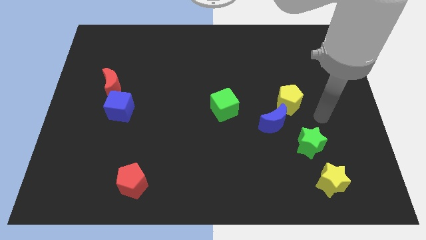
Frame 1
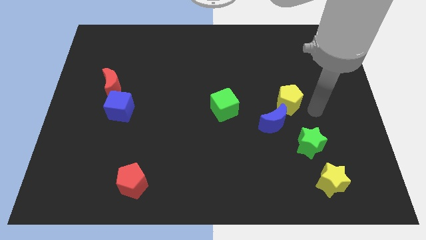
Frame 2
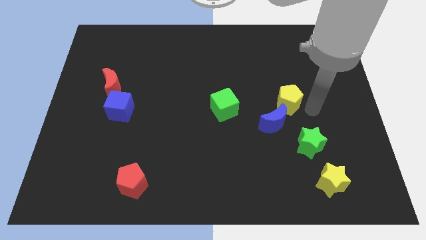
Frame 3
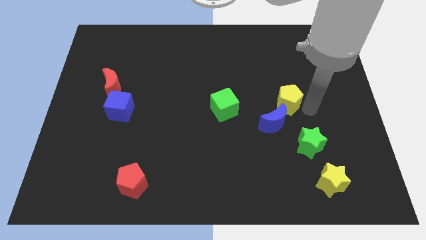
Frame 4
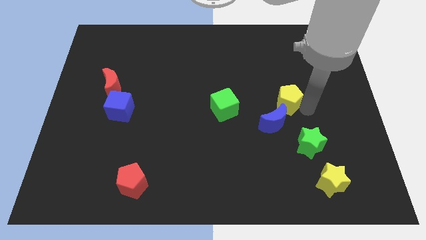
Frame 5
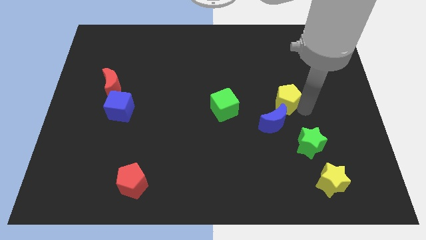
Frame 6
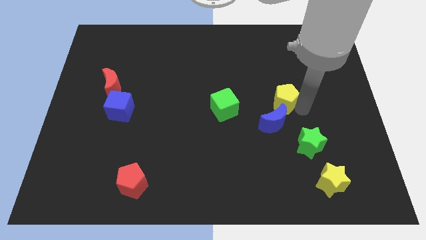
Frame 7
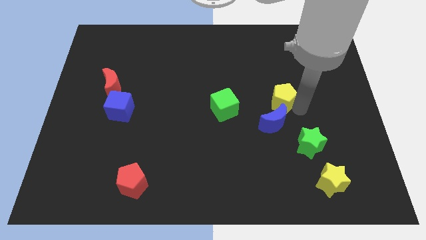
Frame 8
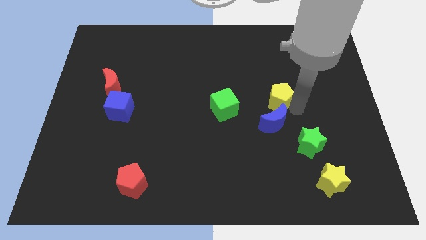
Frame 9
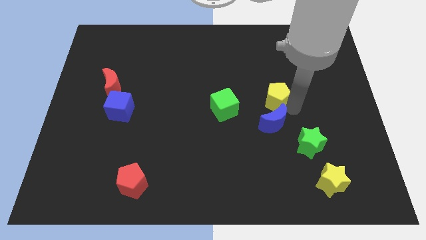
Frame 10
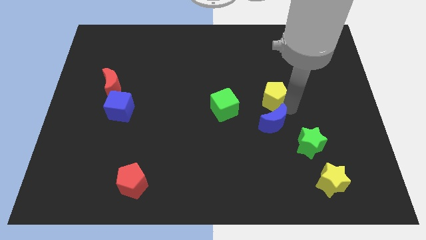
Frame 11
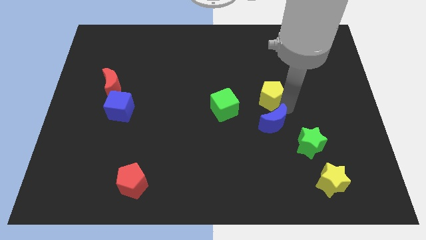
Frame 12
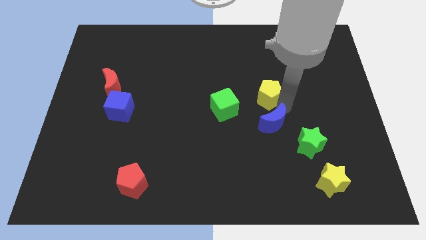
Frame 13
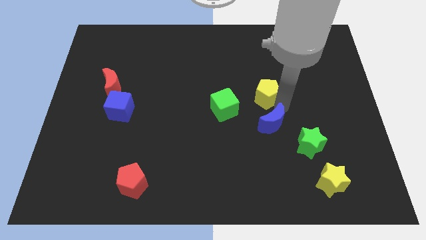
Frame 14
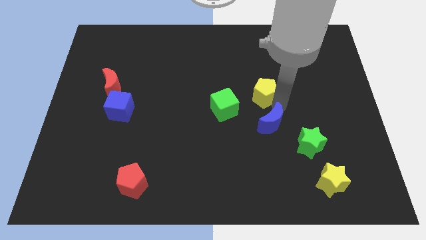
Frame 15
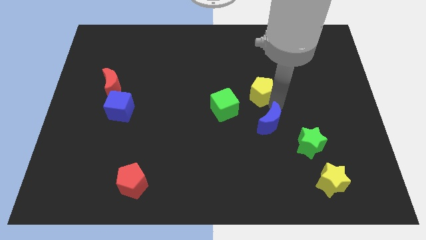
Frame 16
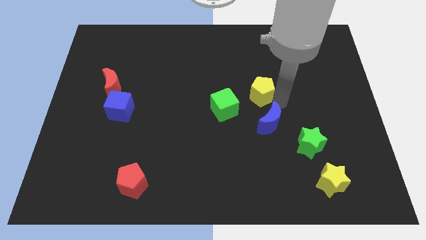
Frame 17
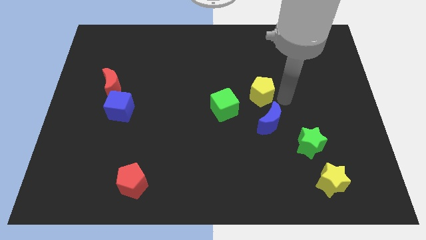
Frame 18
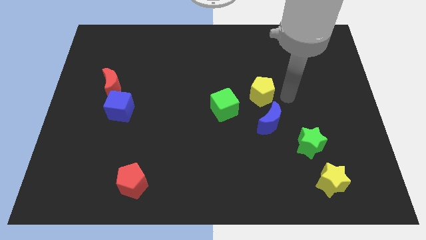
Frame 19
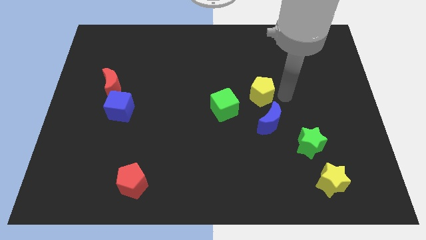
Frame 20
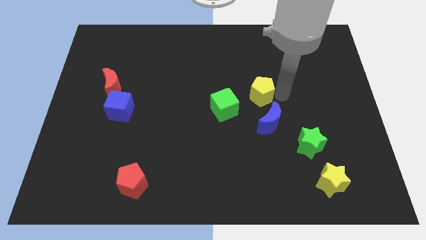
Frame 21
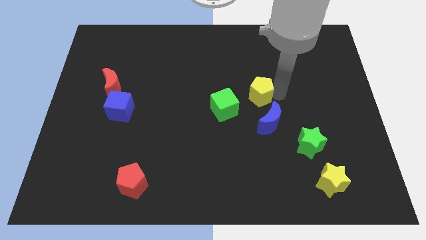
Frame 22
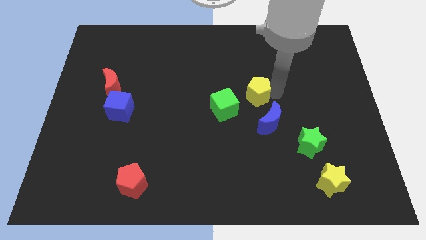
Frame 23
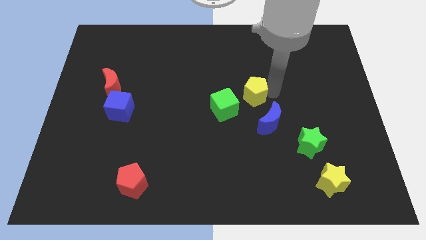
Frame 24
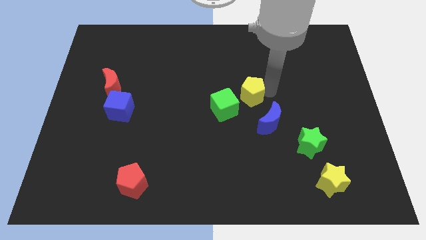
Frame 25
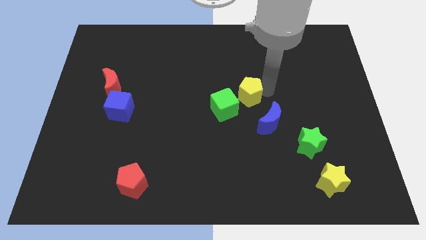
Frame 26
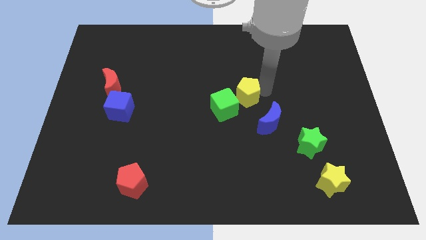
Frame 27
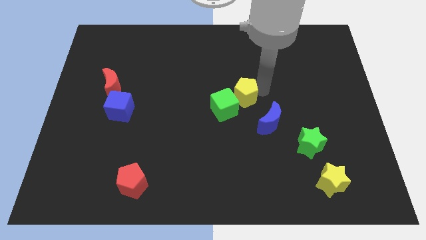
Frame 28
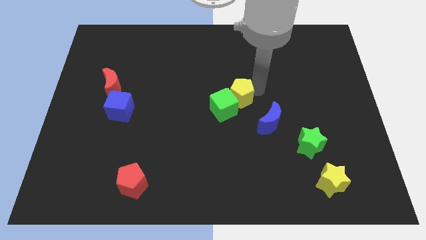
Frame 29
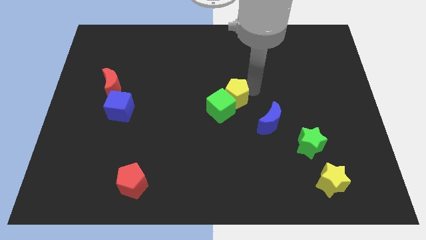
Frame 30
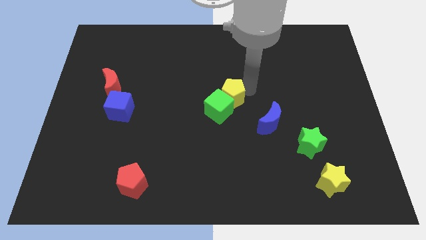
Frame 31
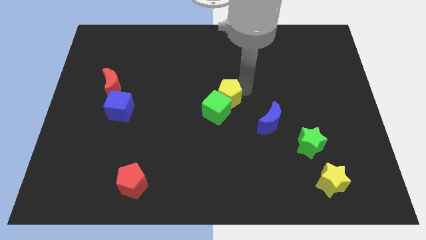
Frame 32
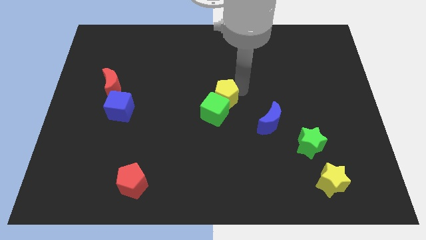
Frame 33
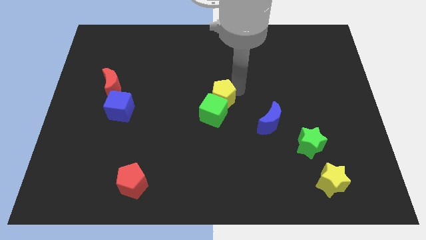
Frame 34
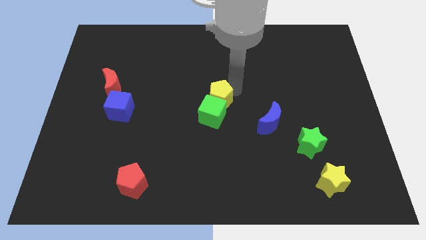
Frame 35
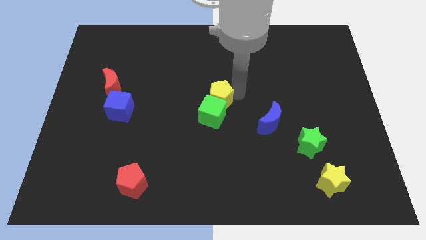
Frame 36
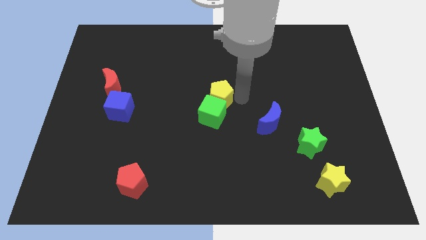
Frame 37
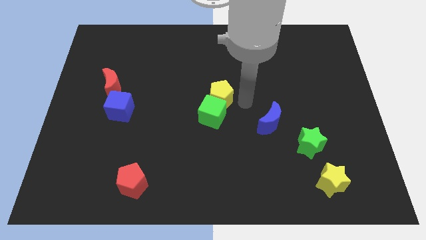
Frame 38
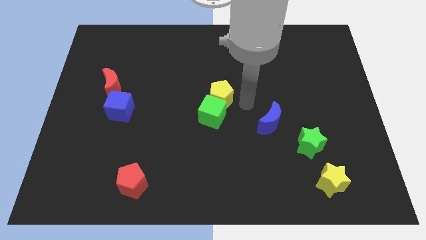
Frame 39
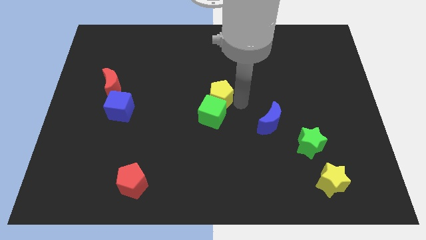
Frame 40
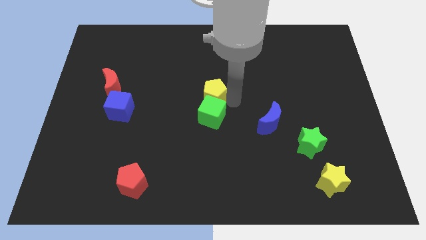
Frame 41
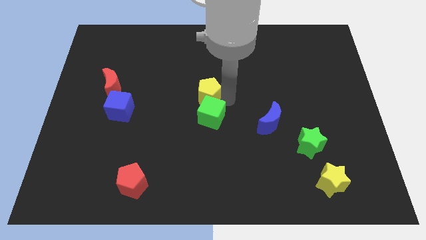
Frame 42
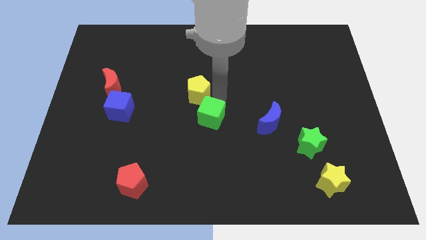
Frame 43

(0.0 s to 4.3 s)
move the yellow pentagon left

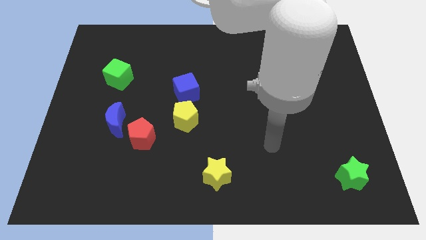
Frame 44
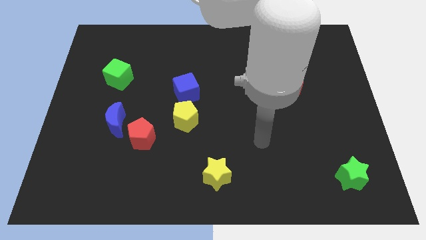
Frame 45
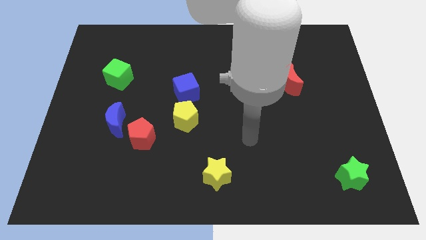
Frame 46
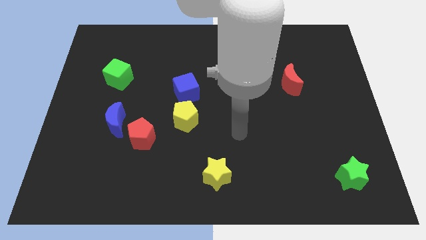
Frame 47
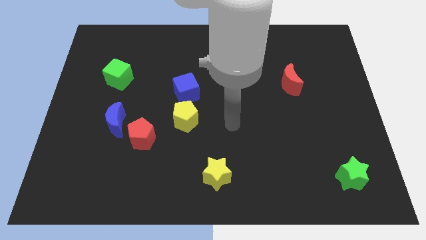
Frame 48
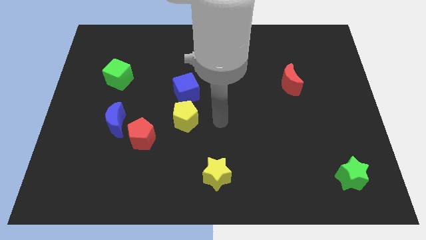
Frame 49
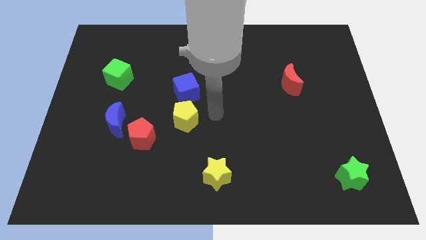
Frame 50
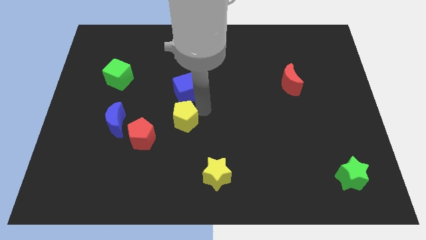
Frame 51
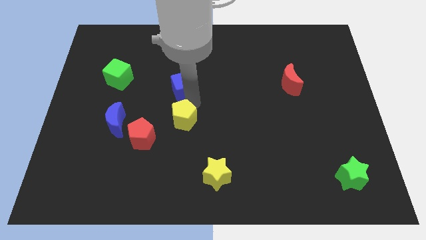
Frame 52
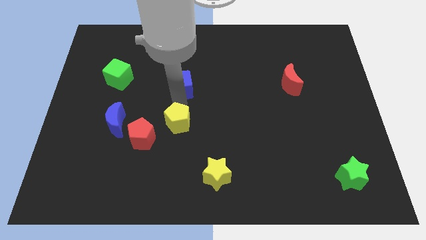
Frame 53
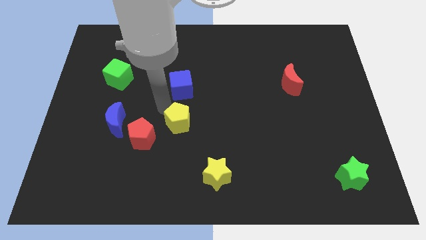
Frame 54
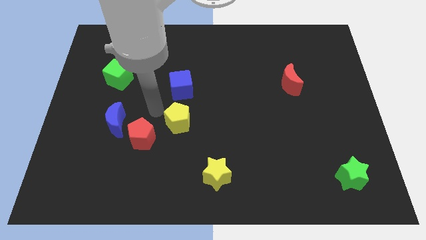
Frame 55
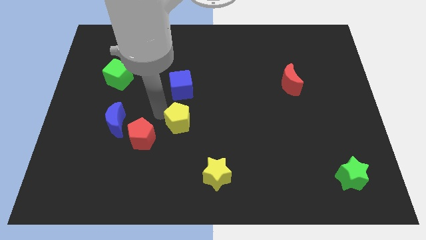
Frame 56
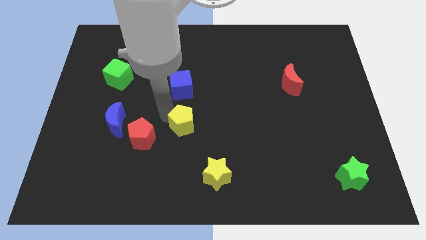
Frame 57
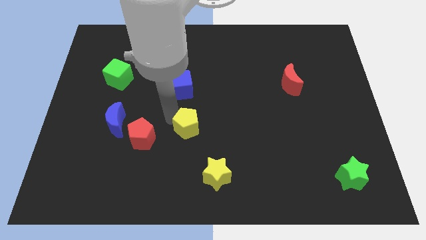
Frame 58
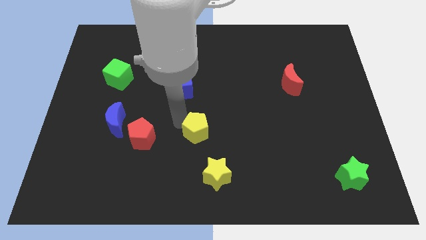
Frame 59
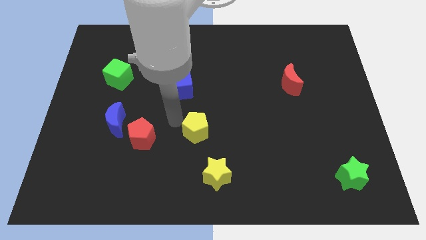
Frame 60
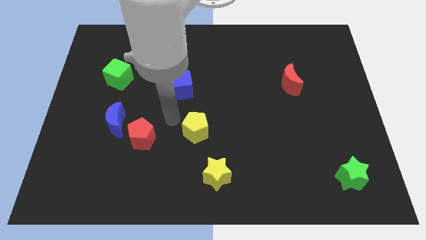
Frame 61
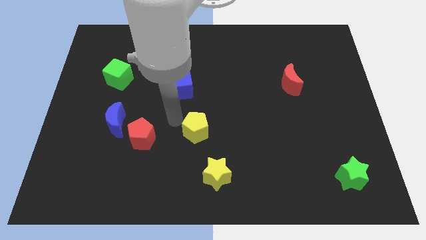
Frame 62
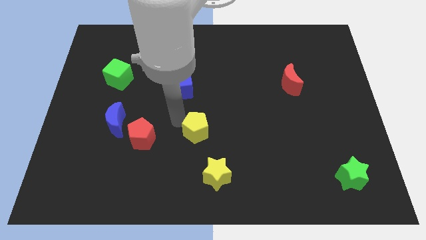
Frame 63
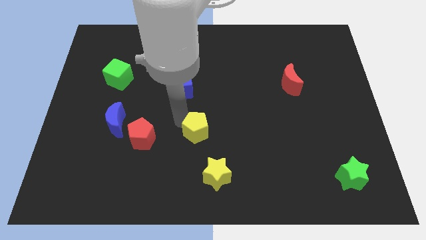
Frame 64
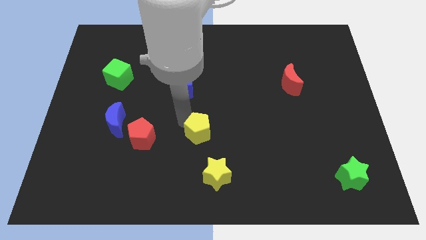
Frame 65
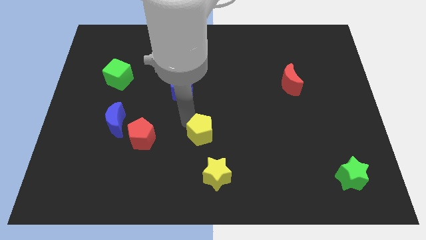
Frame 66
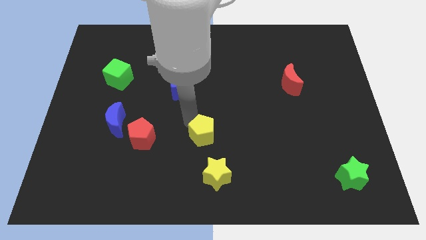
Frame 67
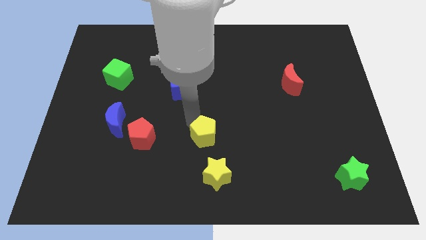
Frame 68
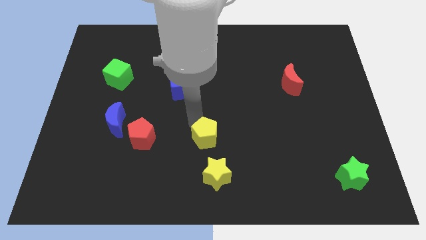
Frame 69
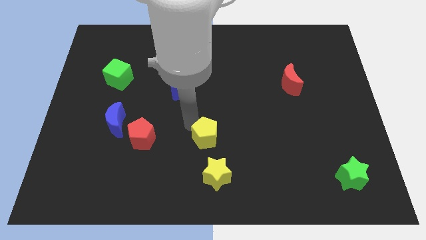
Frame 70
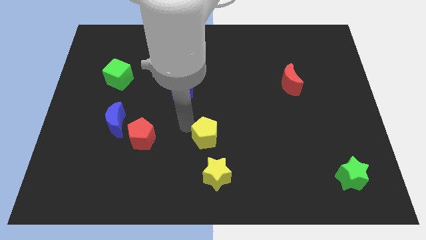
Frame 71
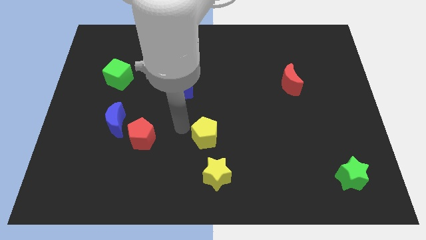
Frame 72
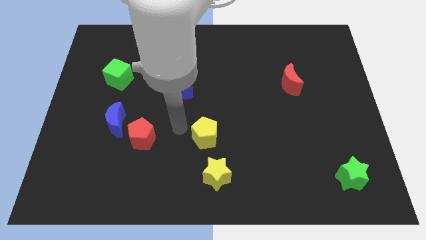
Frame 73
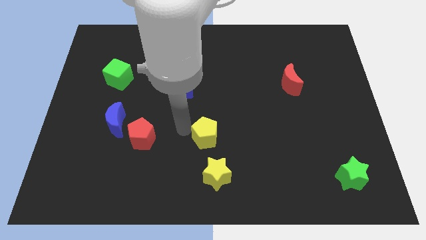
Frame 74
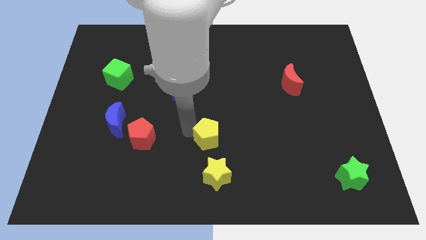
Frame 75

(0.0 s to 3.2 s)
slide the yellow pentagon downwards and then to the right a little

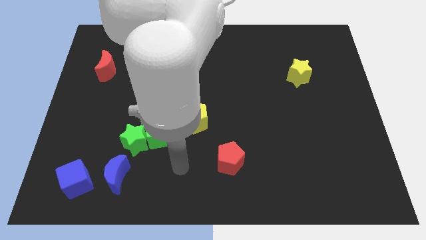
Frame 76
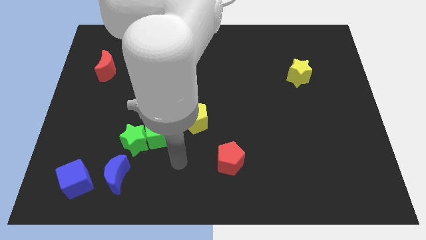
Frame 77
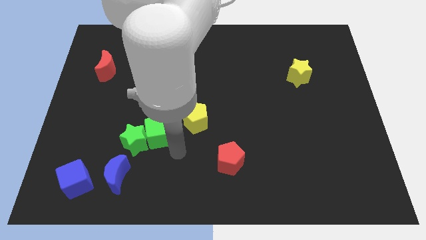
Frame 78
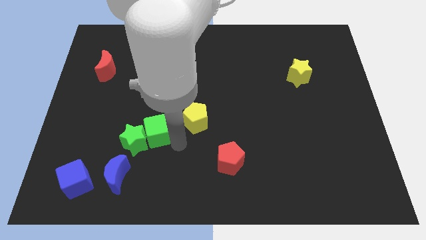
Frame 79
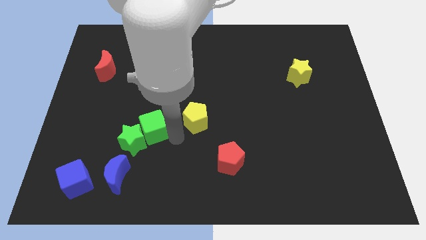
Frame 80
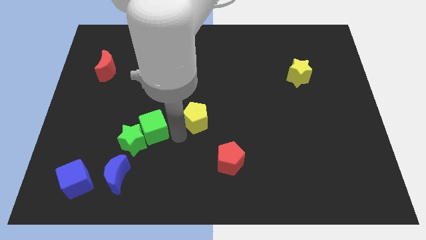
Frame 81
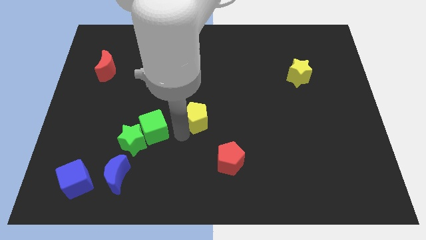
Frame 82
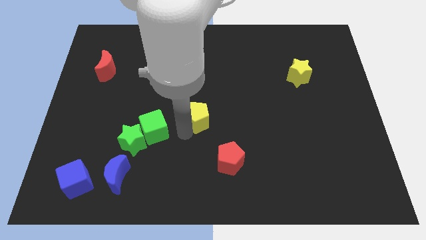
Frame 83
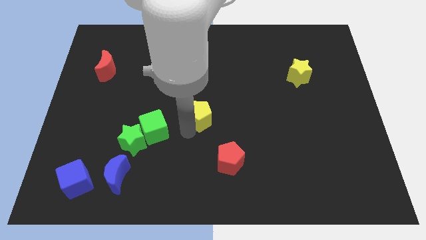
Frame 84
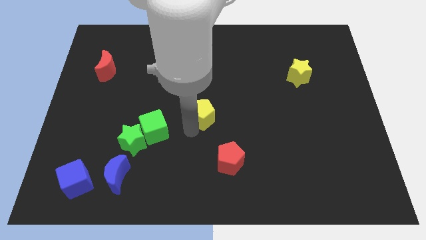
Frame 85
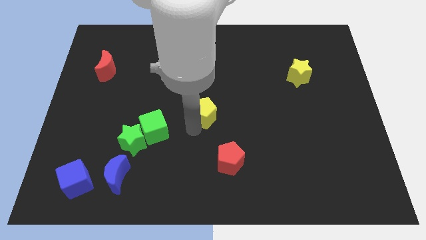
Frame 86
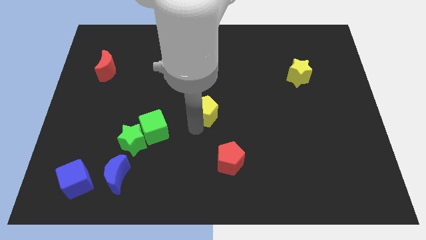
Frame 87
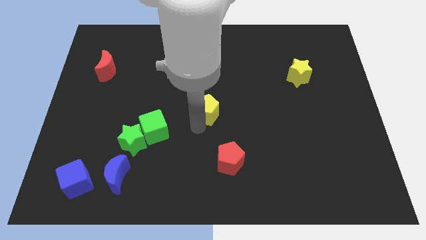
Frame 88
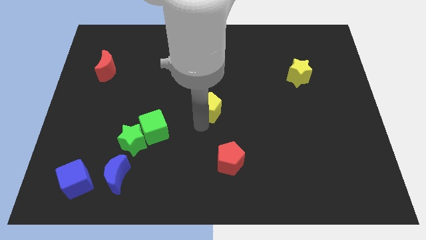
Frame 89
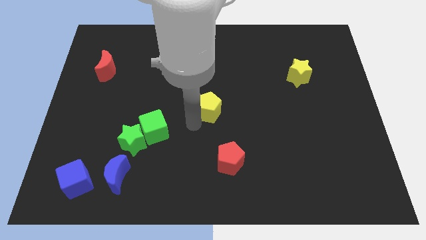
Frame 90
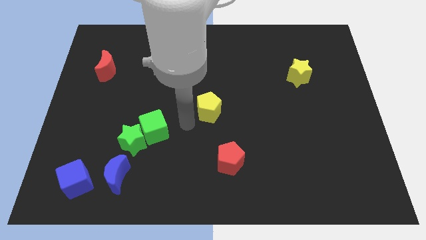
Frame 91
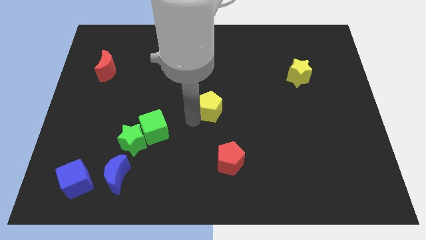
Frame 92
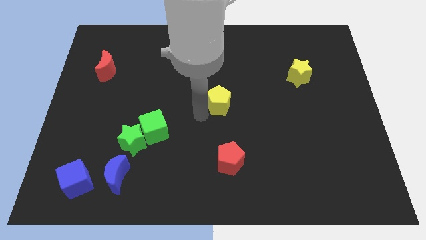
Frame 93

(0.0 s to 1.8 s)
move the yellow pentagon upwards and then to the right slightly
